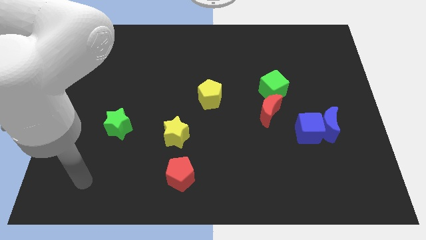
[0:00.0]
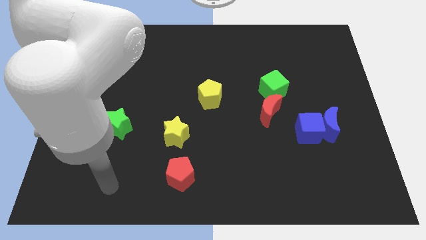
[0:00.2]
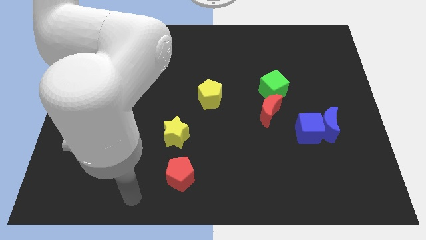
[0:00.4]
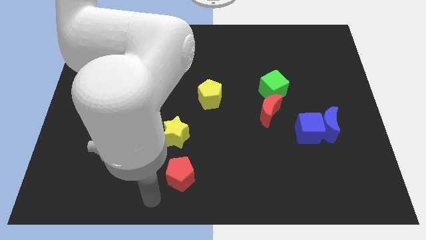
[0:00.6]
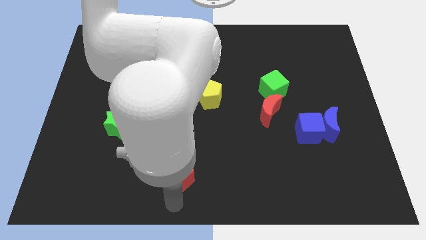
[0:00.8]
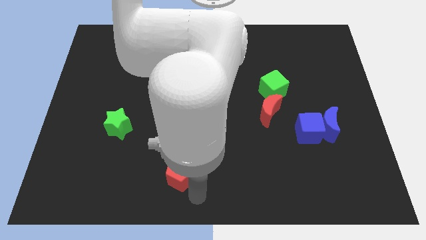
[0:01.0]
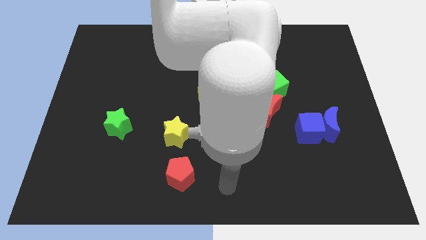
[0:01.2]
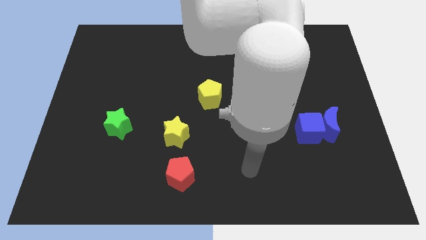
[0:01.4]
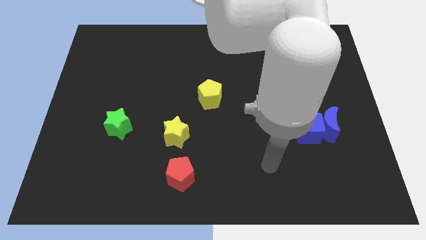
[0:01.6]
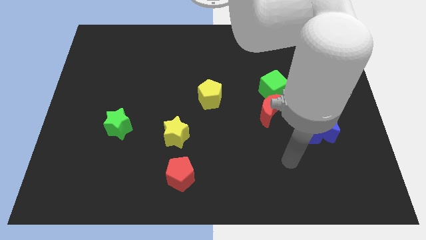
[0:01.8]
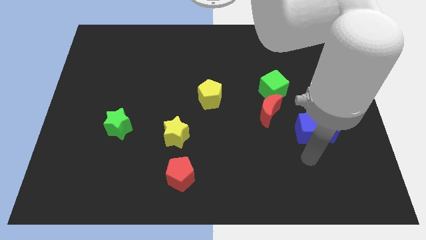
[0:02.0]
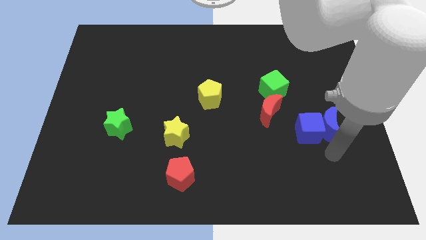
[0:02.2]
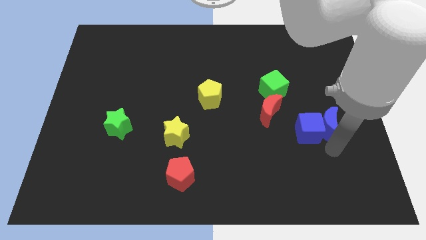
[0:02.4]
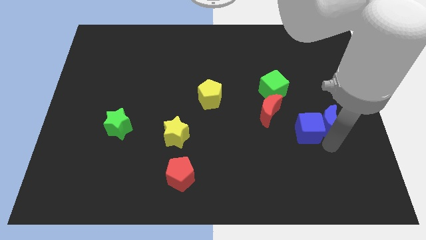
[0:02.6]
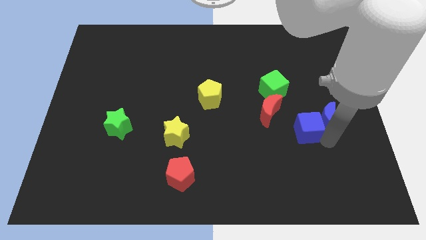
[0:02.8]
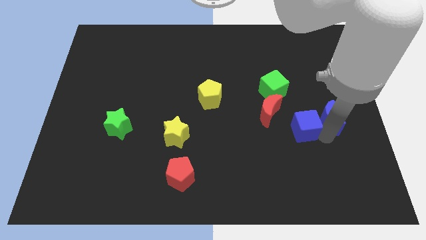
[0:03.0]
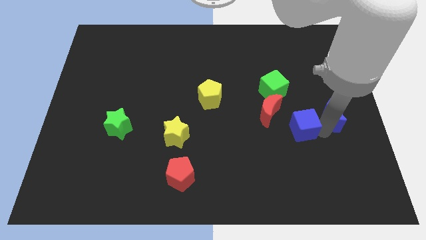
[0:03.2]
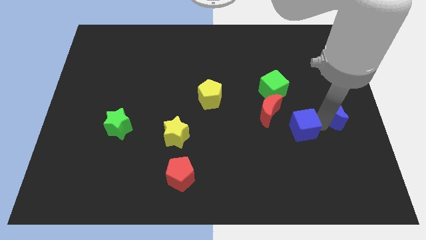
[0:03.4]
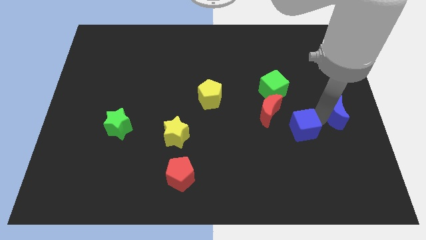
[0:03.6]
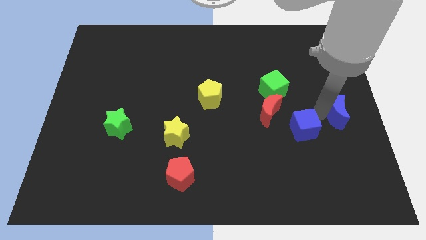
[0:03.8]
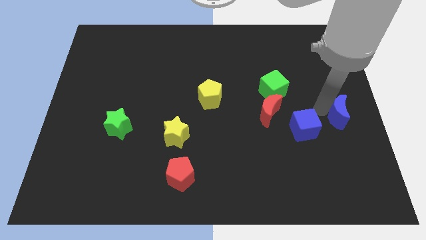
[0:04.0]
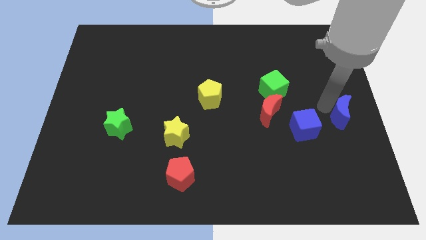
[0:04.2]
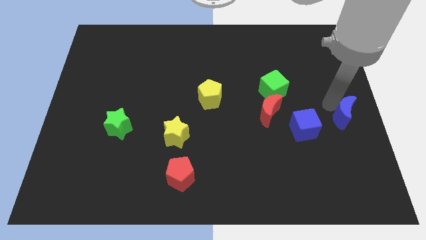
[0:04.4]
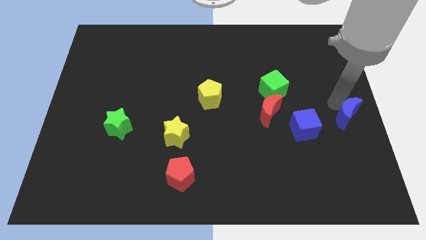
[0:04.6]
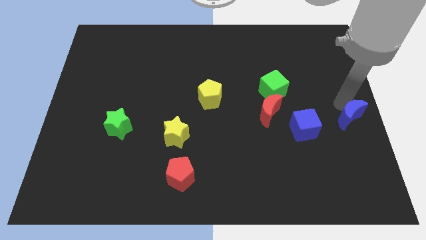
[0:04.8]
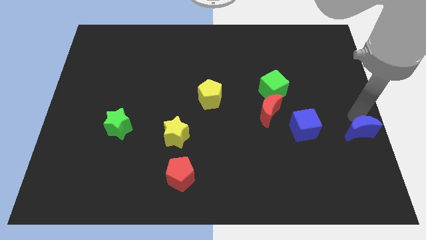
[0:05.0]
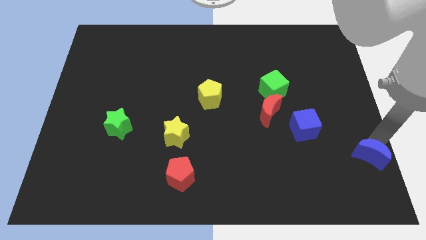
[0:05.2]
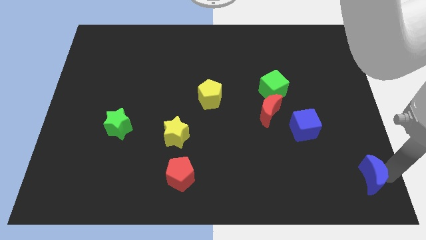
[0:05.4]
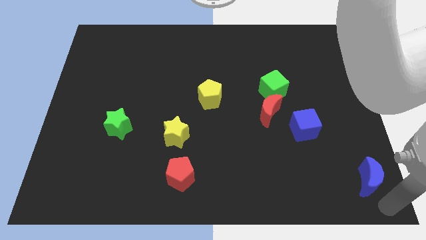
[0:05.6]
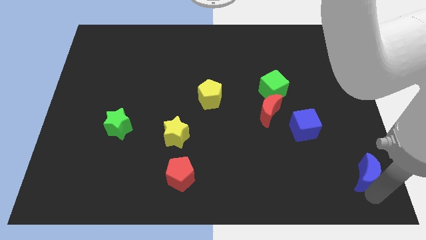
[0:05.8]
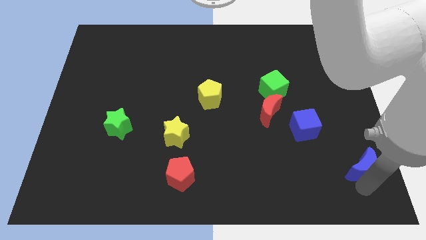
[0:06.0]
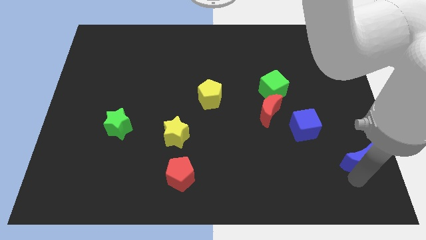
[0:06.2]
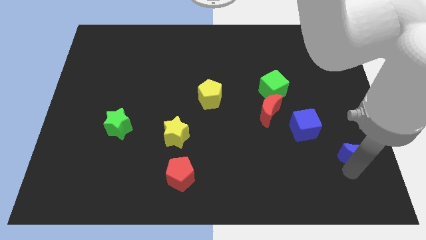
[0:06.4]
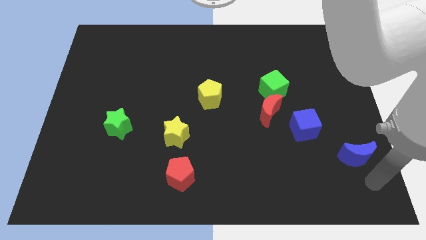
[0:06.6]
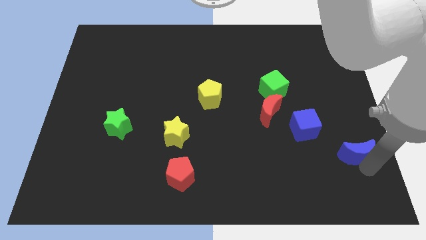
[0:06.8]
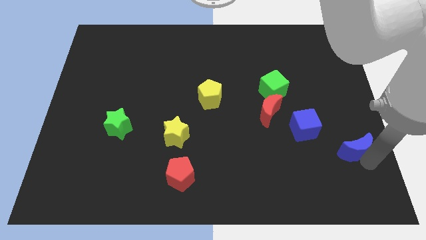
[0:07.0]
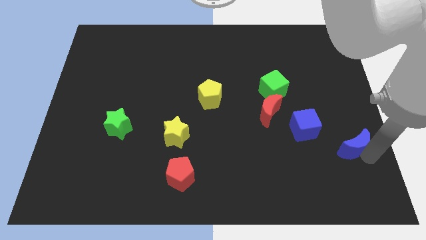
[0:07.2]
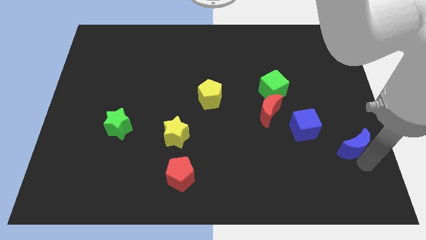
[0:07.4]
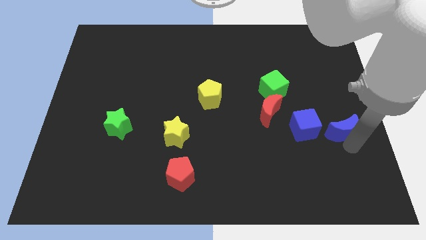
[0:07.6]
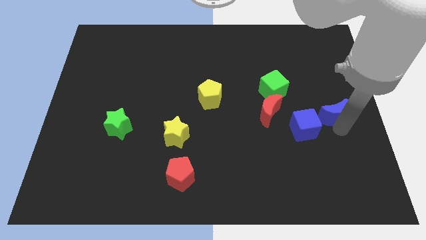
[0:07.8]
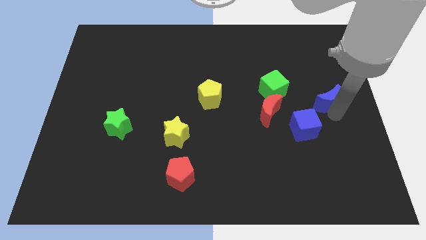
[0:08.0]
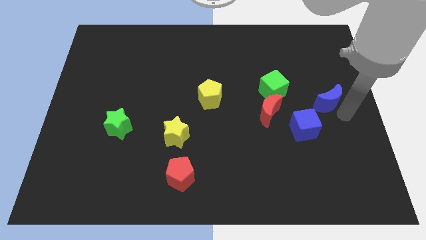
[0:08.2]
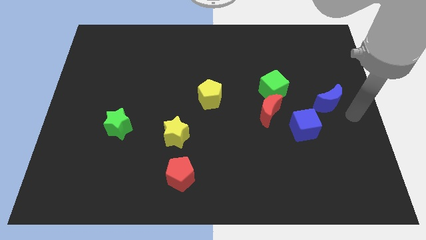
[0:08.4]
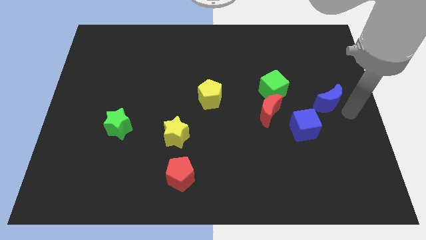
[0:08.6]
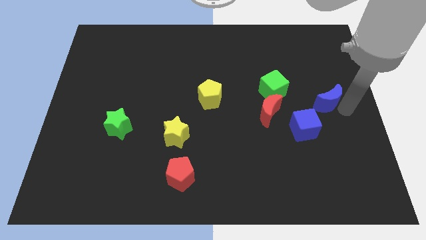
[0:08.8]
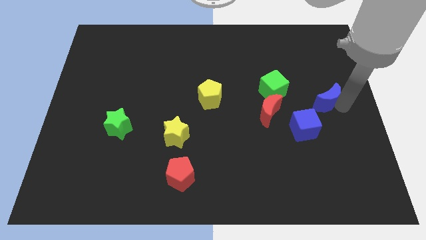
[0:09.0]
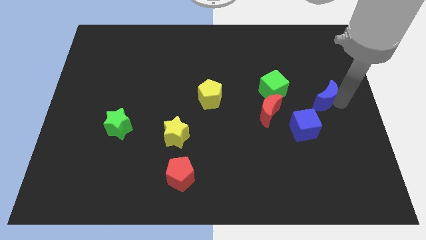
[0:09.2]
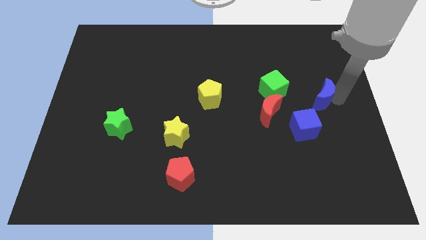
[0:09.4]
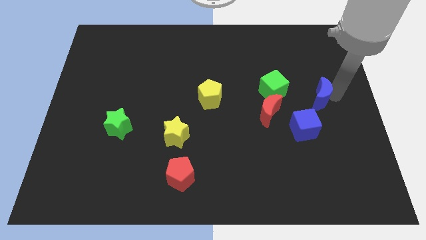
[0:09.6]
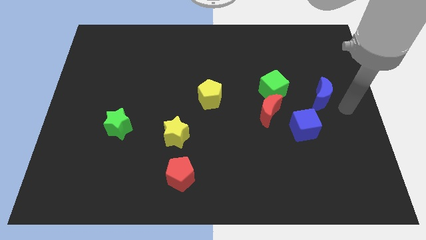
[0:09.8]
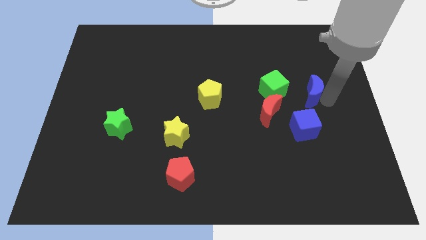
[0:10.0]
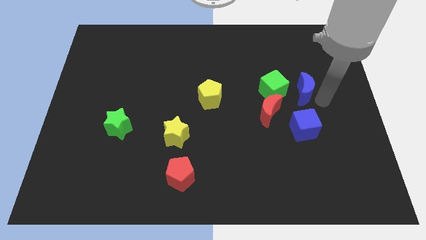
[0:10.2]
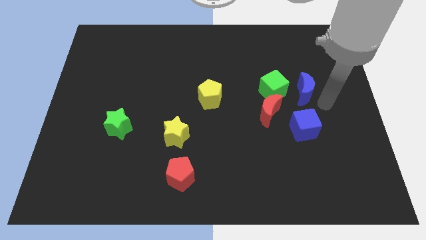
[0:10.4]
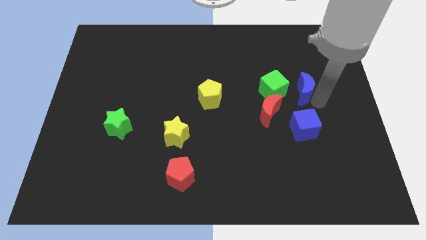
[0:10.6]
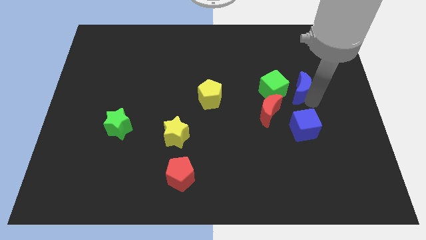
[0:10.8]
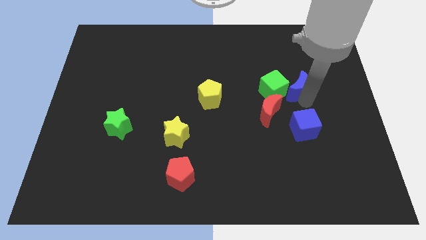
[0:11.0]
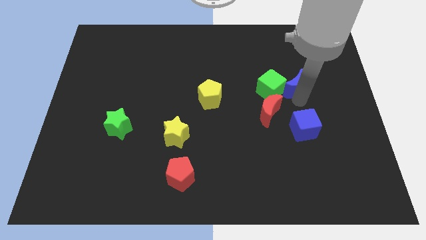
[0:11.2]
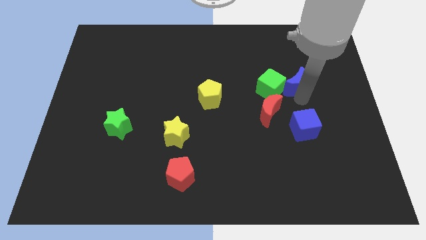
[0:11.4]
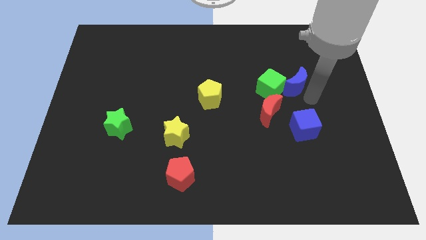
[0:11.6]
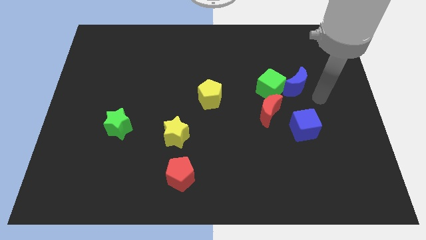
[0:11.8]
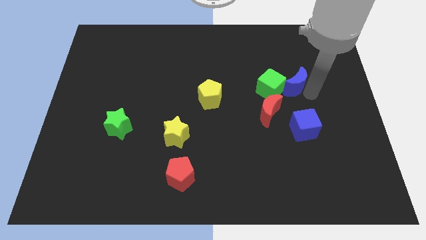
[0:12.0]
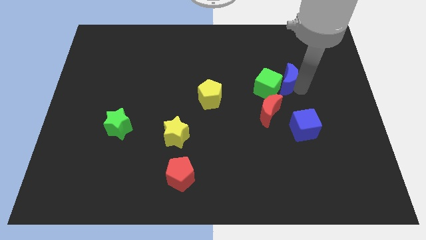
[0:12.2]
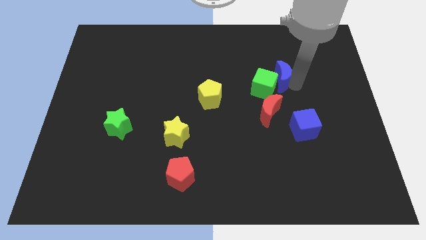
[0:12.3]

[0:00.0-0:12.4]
move the blue moon above the red moon
